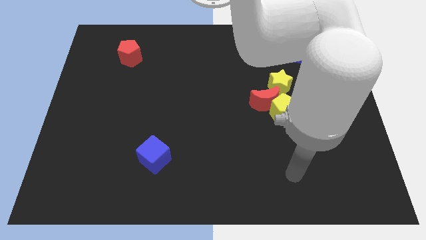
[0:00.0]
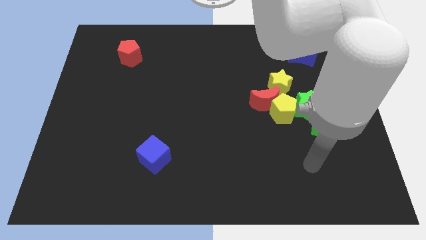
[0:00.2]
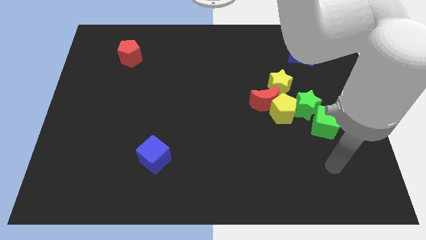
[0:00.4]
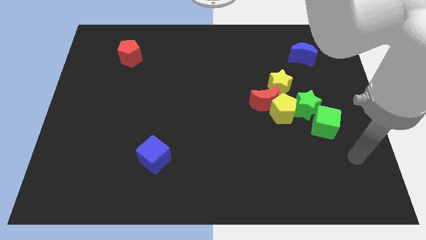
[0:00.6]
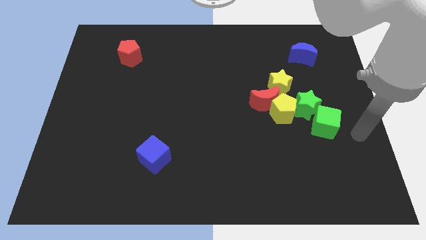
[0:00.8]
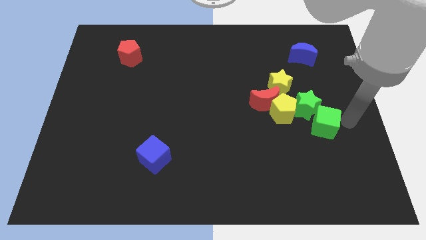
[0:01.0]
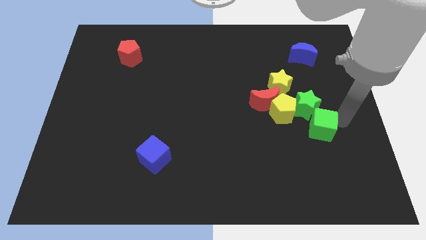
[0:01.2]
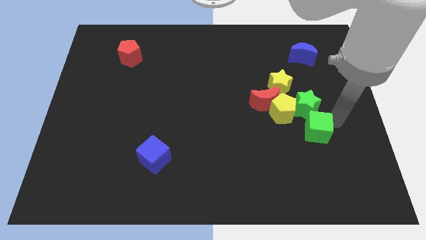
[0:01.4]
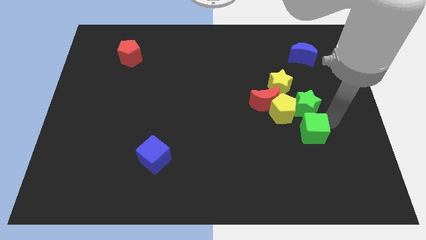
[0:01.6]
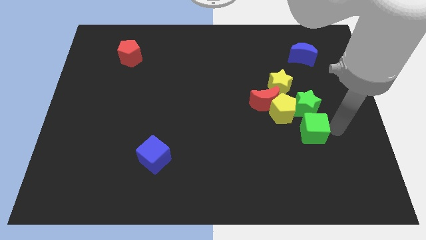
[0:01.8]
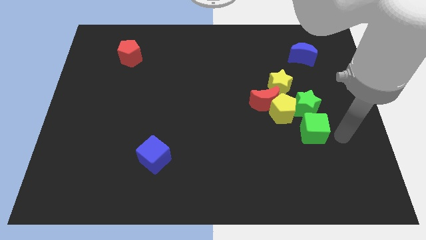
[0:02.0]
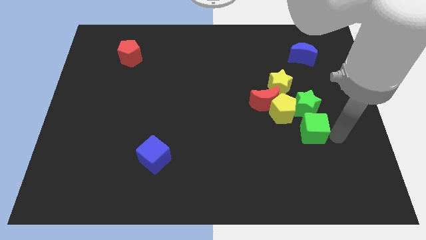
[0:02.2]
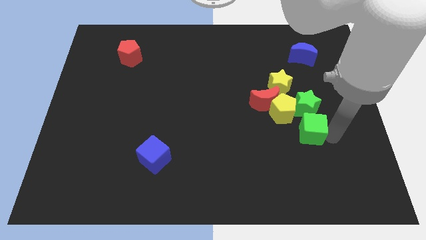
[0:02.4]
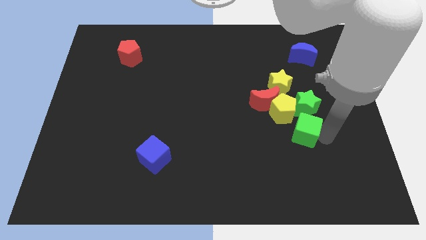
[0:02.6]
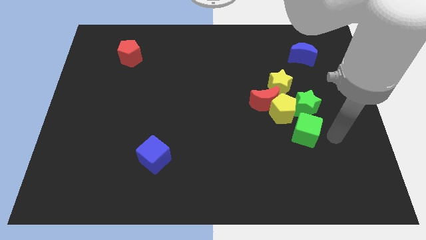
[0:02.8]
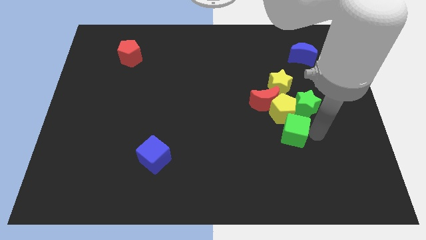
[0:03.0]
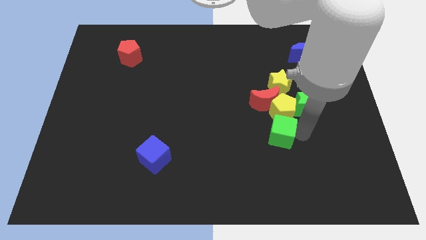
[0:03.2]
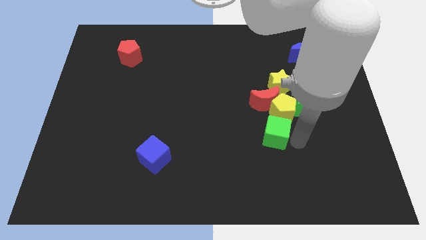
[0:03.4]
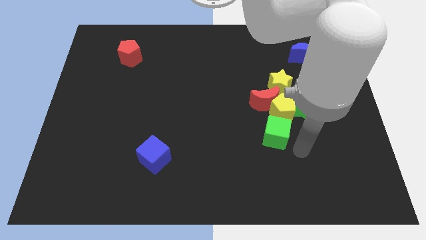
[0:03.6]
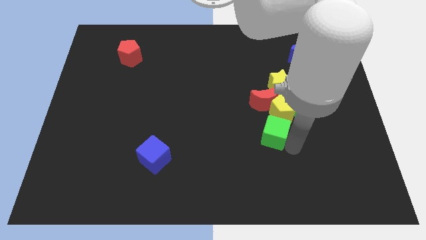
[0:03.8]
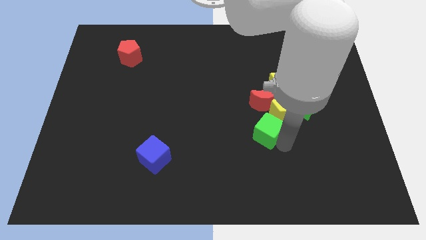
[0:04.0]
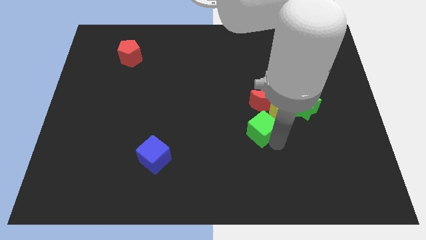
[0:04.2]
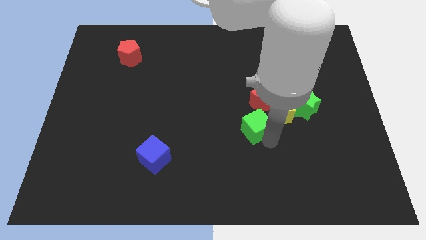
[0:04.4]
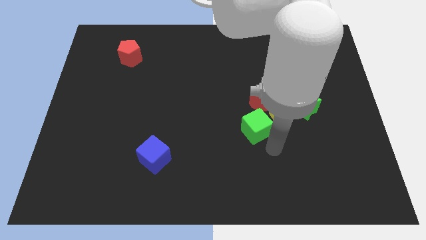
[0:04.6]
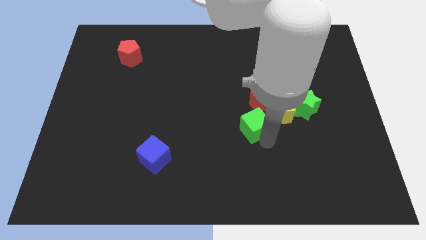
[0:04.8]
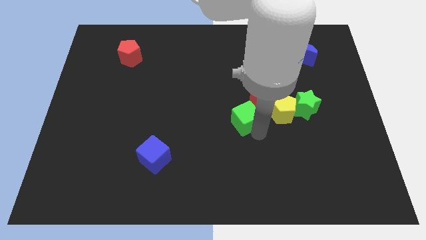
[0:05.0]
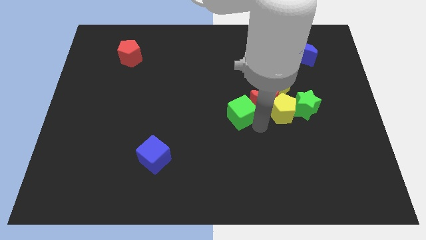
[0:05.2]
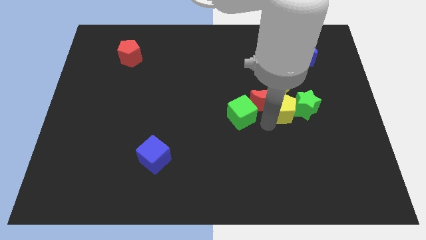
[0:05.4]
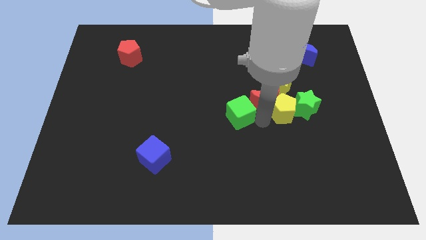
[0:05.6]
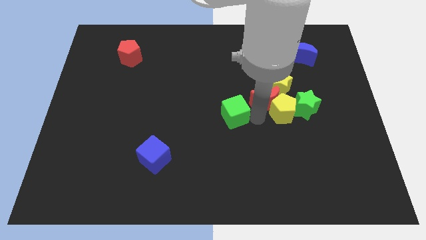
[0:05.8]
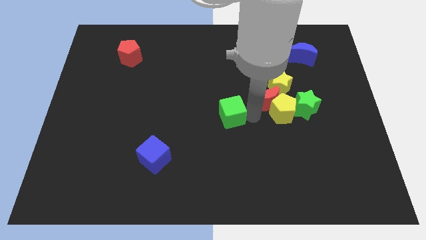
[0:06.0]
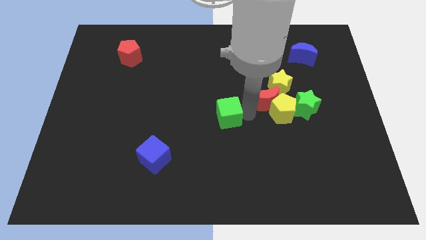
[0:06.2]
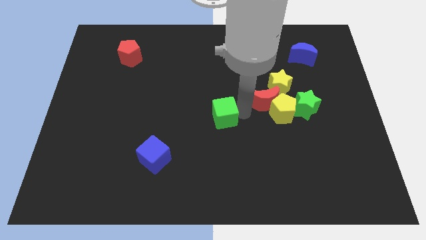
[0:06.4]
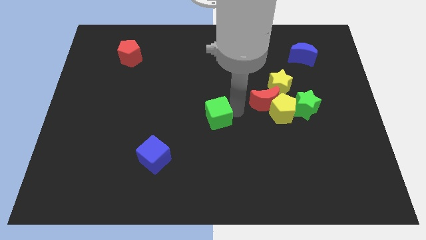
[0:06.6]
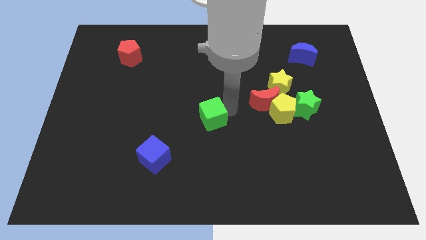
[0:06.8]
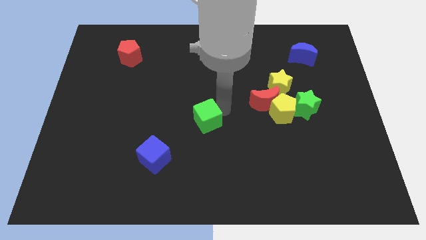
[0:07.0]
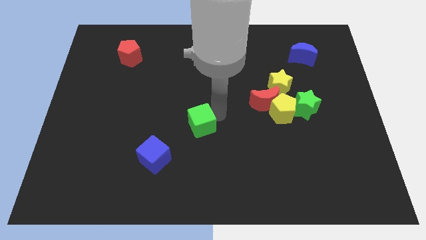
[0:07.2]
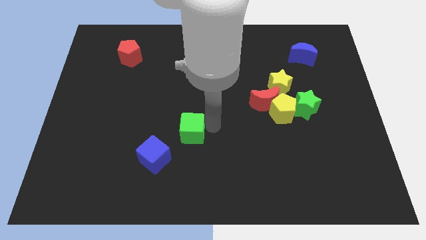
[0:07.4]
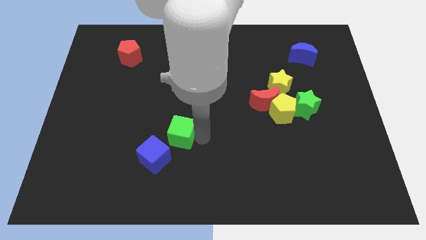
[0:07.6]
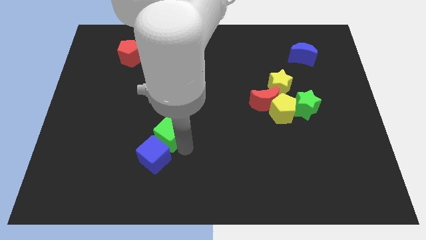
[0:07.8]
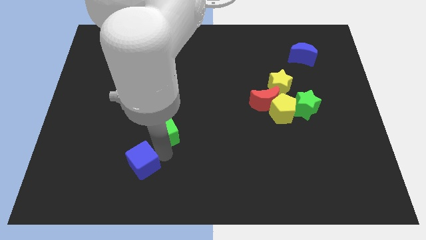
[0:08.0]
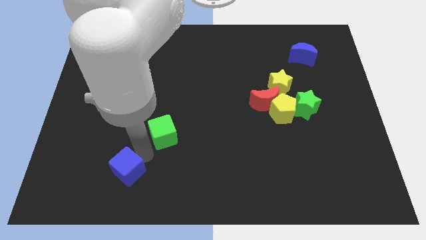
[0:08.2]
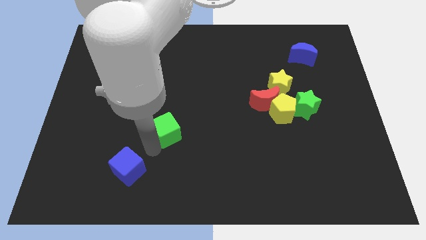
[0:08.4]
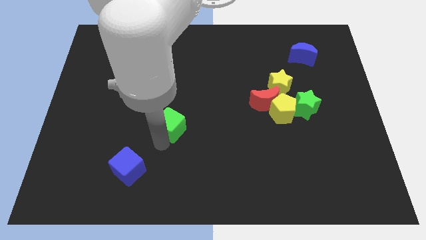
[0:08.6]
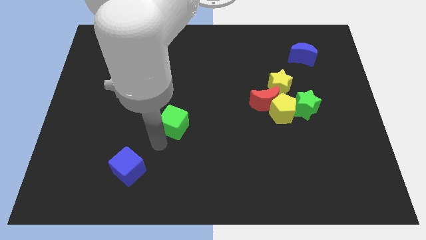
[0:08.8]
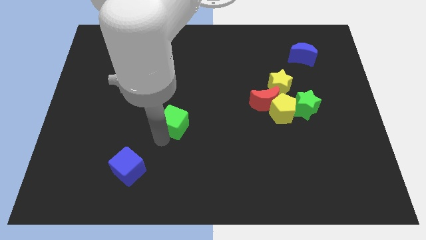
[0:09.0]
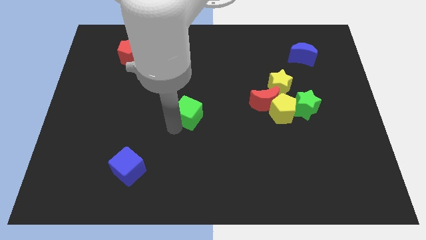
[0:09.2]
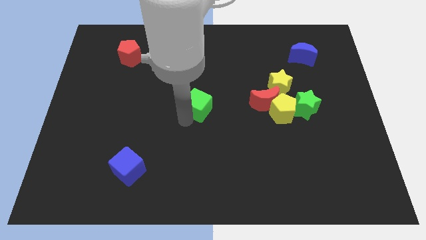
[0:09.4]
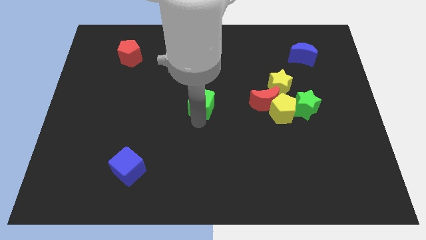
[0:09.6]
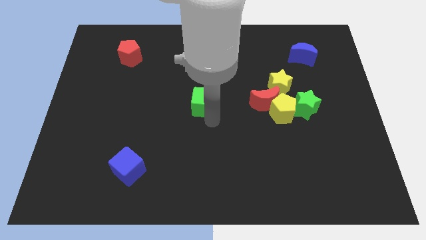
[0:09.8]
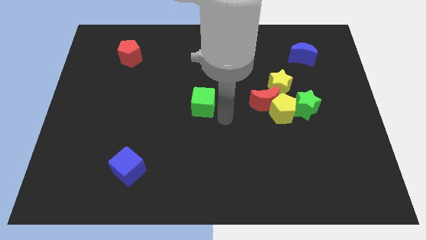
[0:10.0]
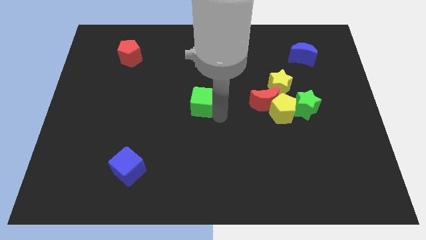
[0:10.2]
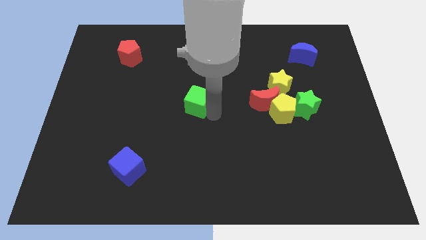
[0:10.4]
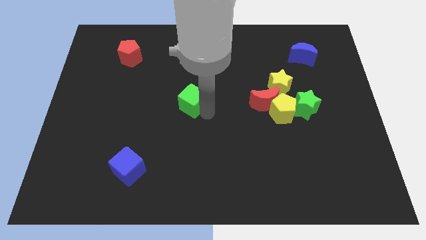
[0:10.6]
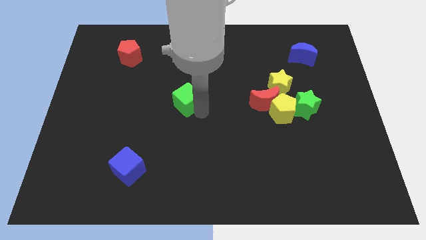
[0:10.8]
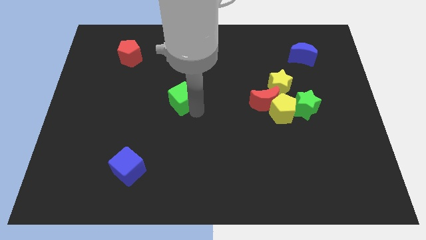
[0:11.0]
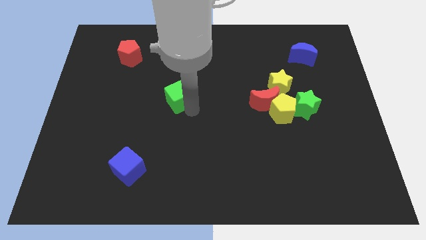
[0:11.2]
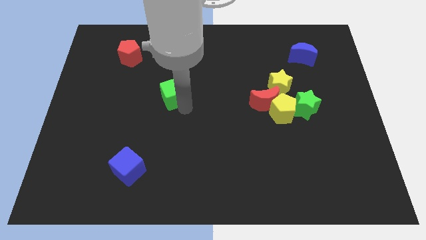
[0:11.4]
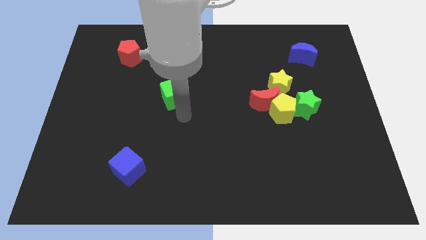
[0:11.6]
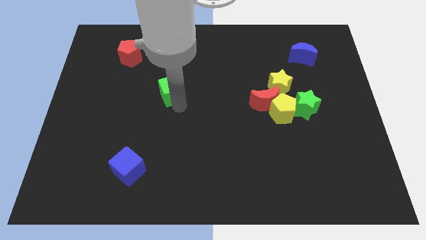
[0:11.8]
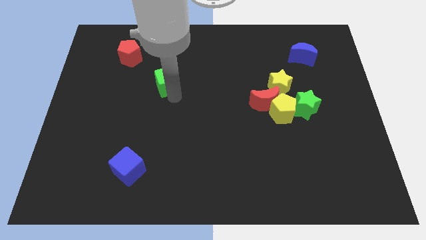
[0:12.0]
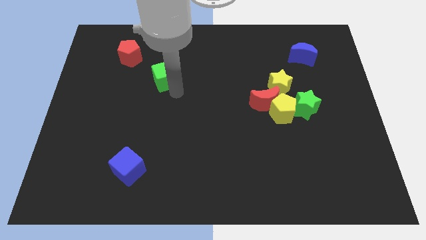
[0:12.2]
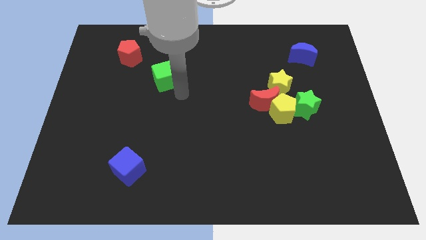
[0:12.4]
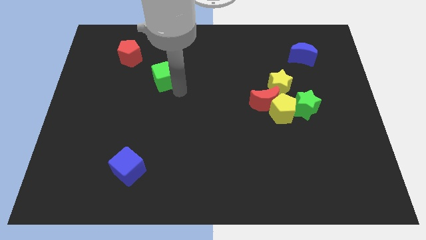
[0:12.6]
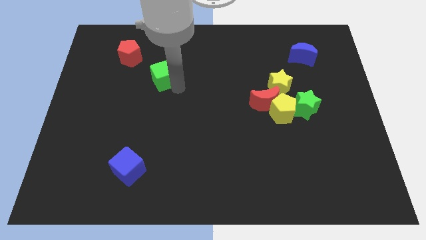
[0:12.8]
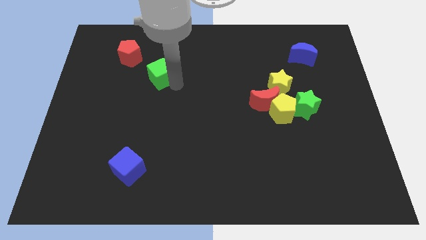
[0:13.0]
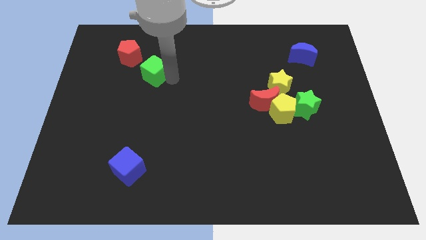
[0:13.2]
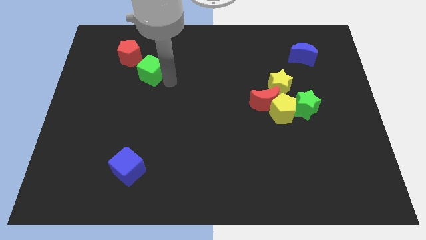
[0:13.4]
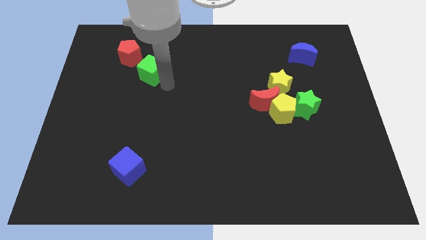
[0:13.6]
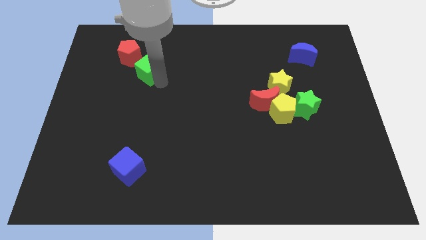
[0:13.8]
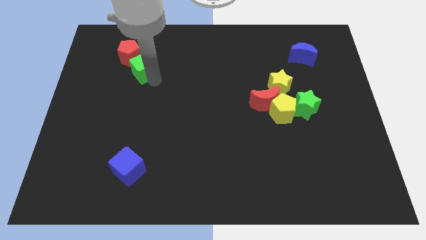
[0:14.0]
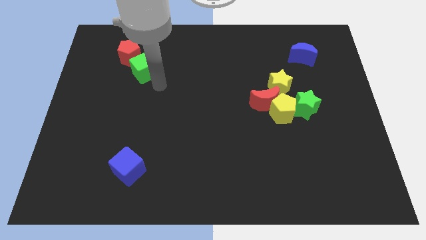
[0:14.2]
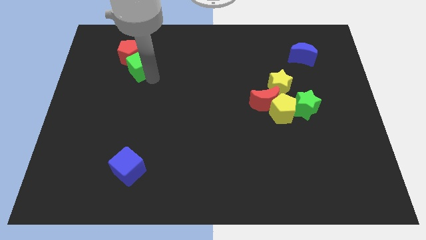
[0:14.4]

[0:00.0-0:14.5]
put the green cube to the red pentagon
